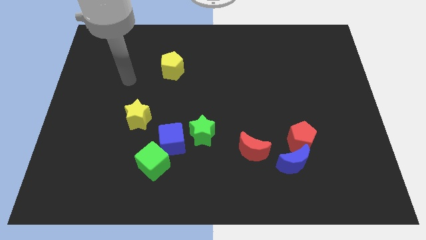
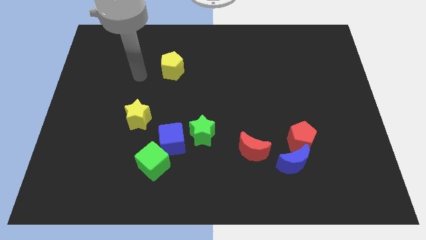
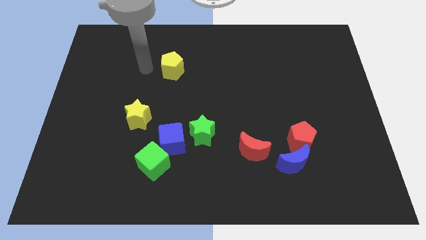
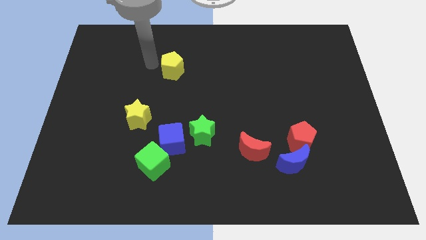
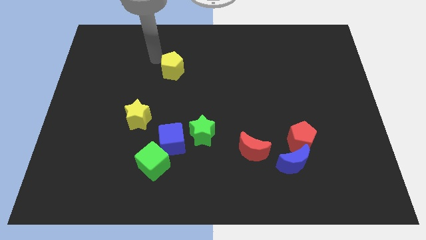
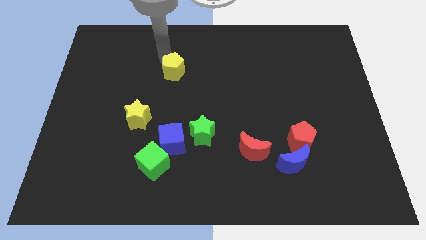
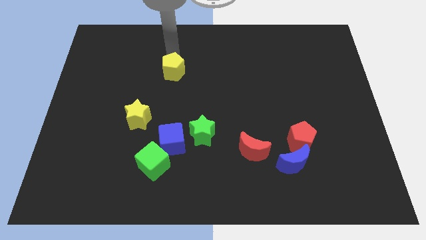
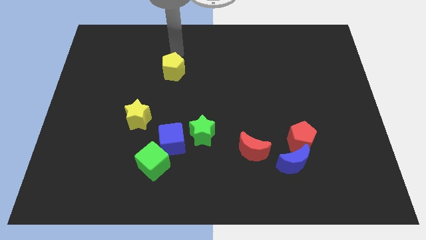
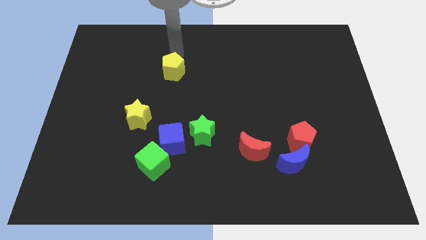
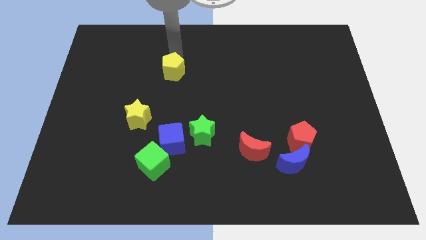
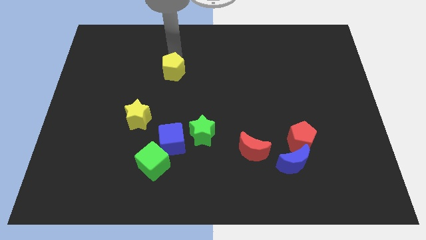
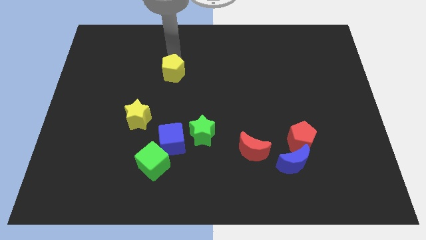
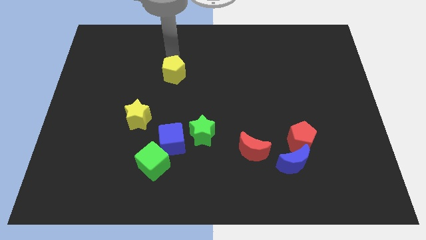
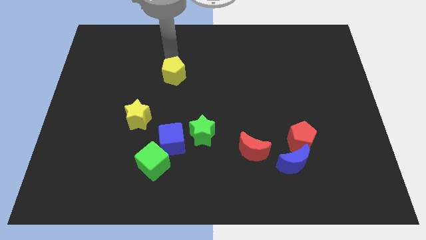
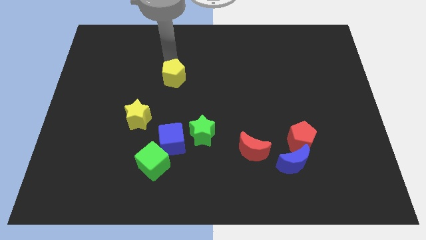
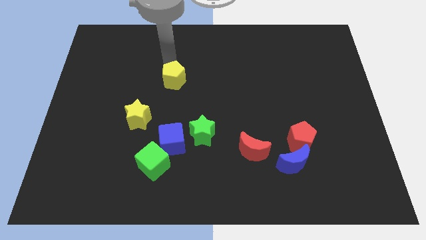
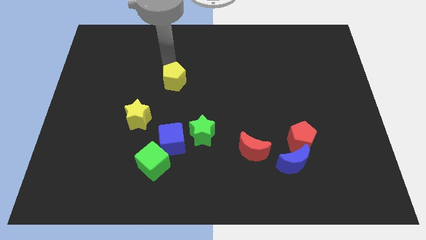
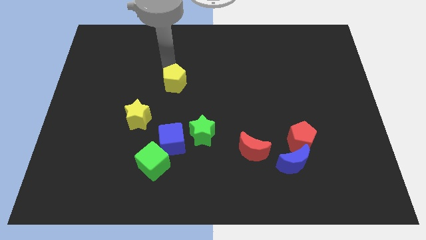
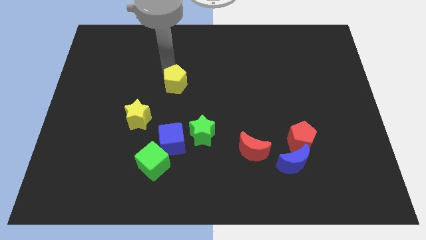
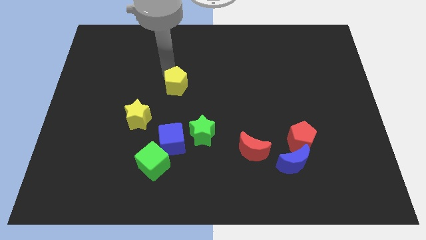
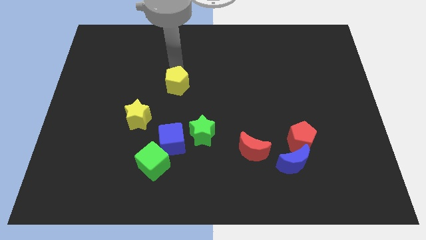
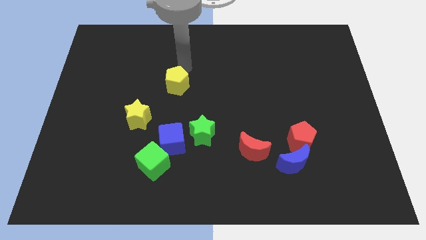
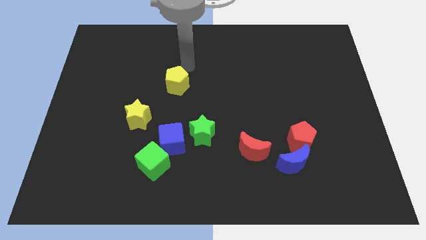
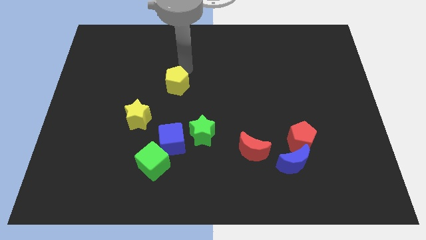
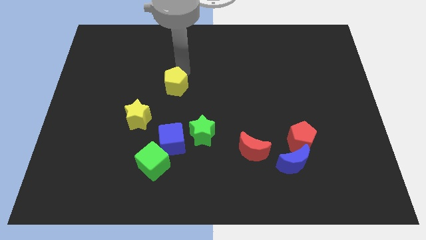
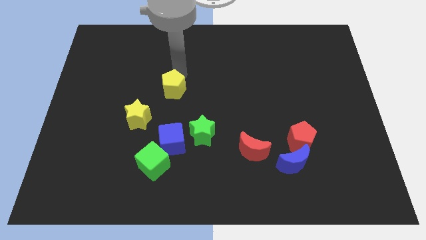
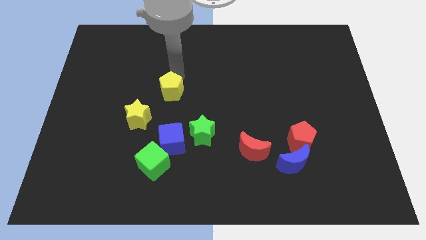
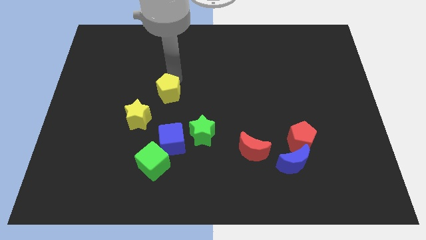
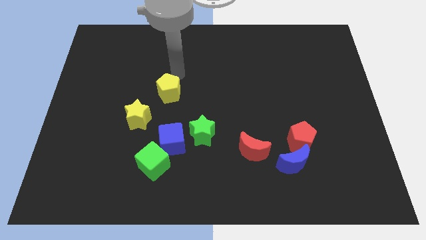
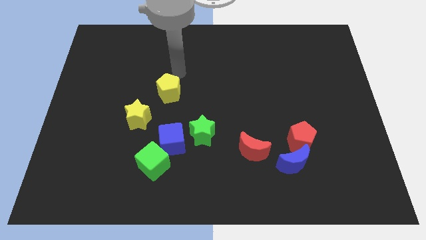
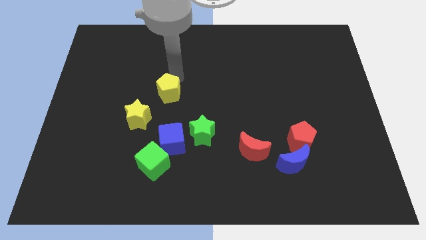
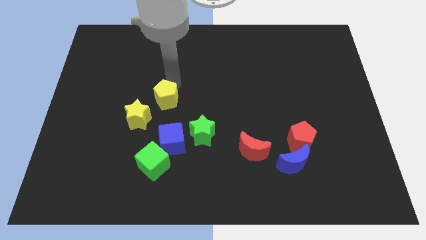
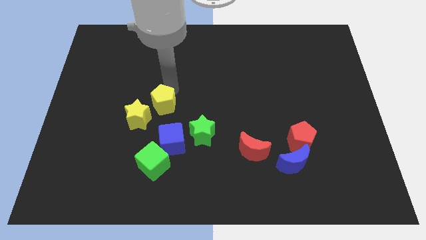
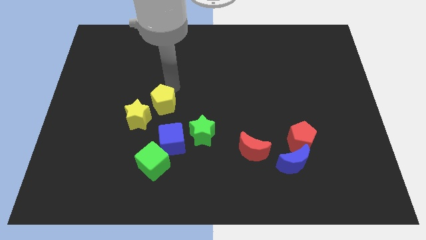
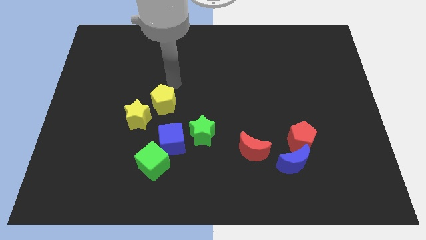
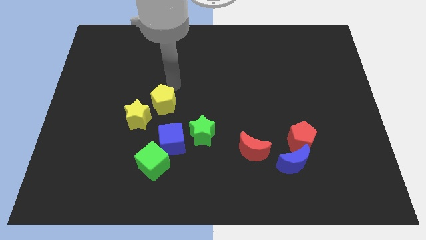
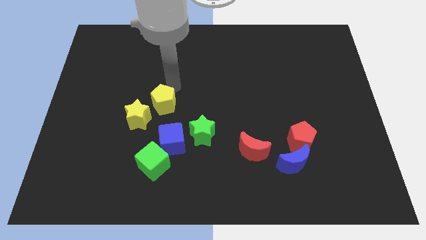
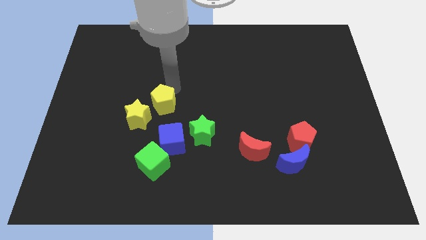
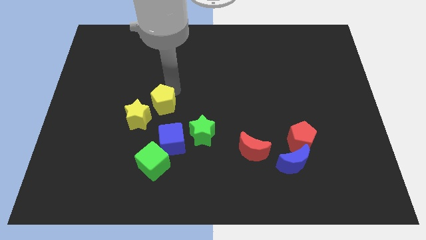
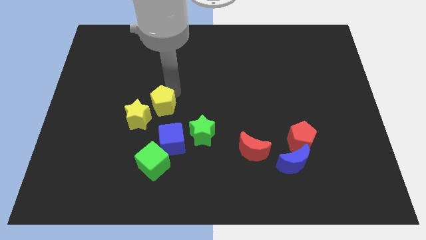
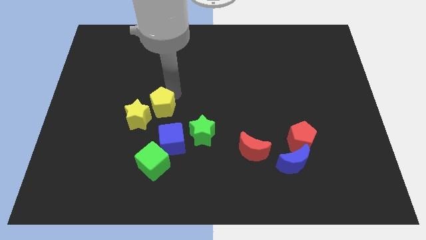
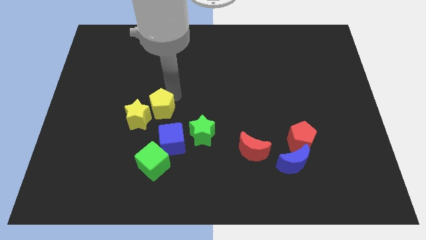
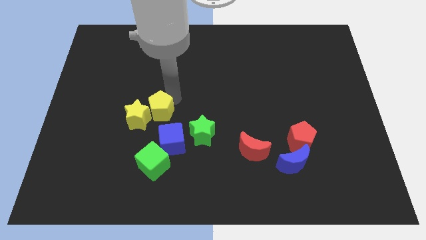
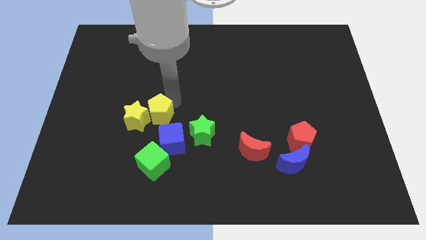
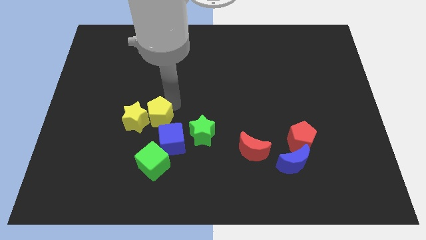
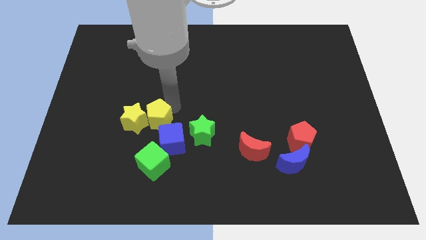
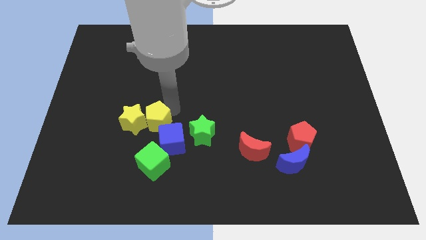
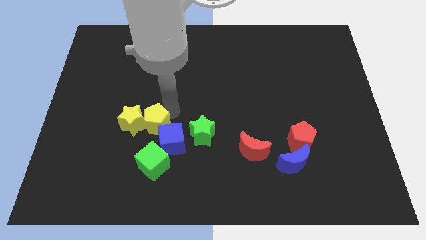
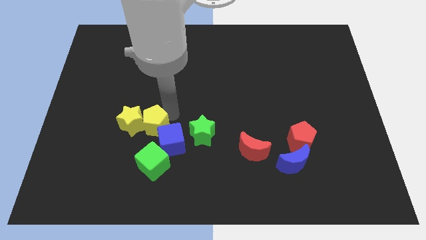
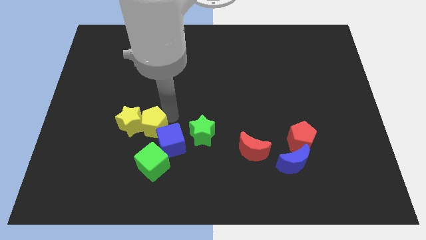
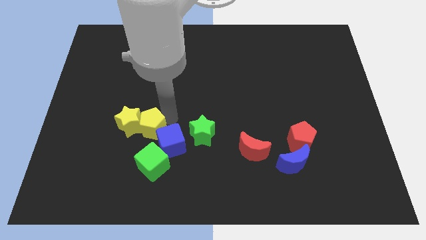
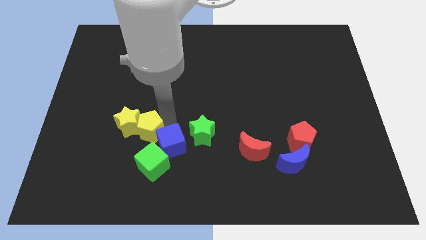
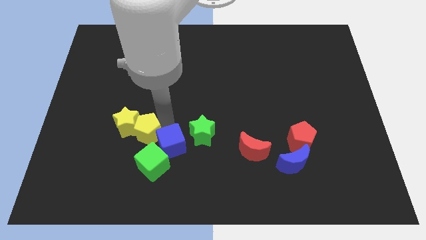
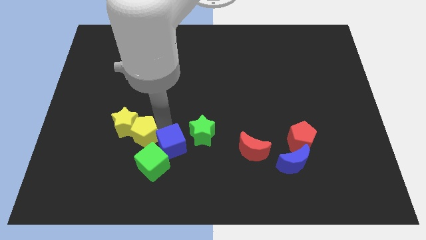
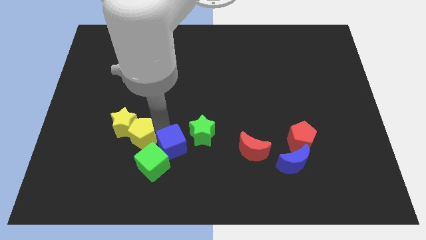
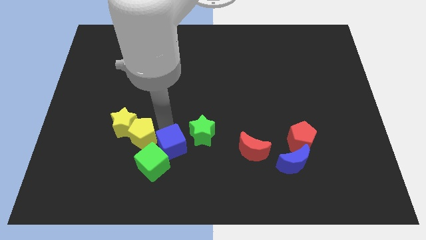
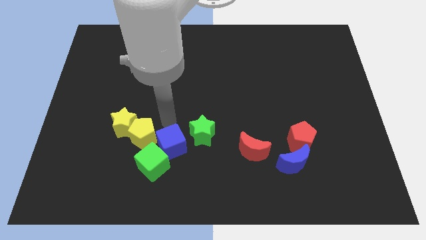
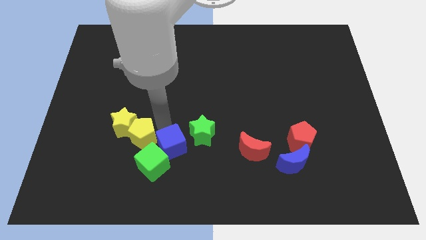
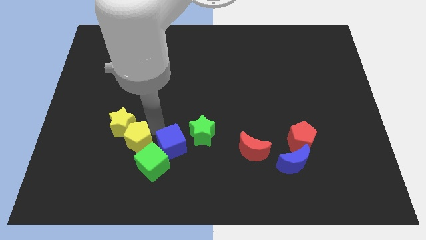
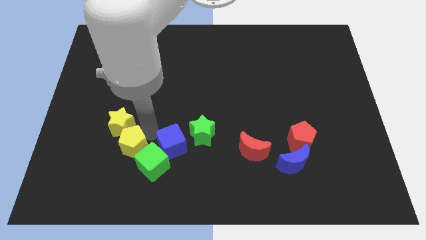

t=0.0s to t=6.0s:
push the yellow pentagon to the left of the green cube

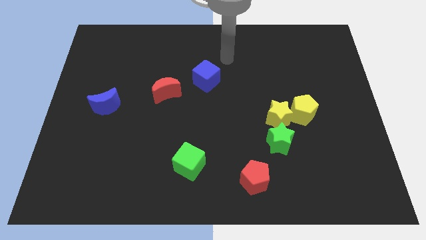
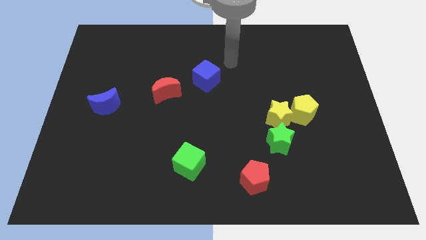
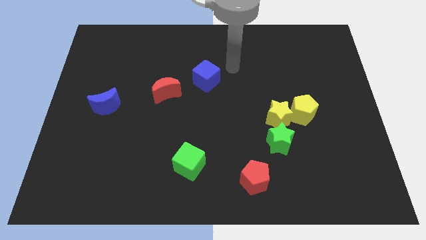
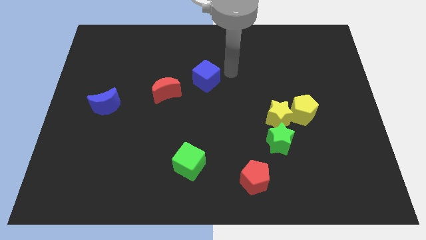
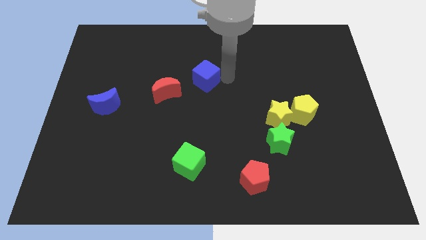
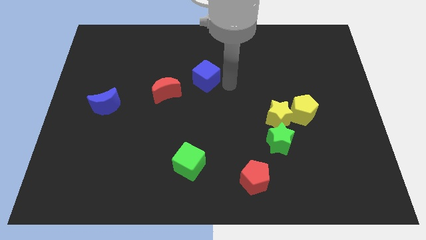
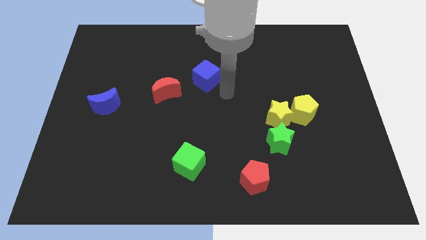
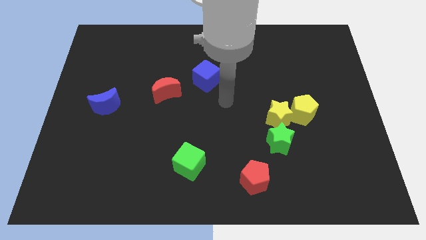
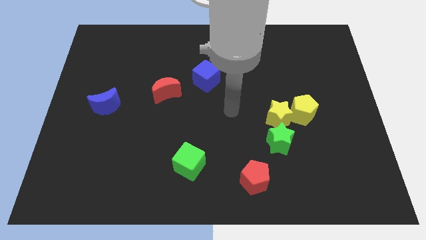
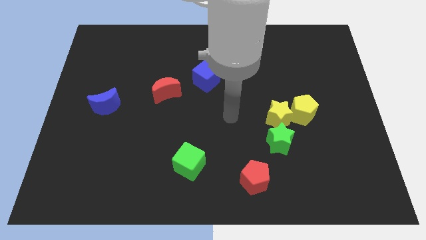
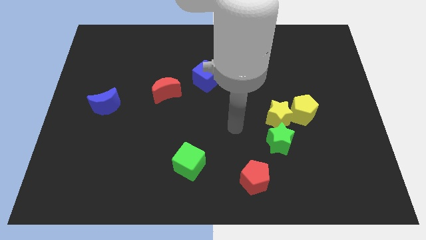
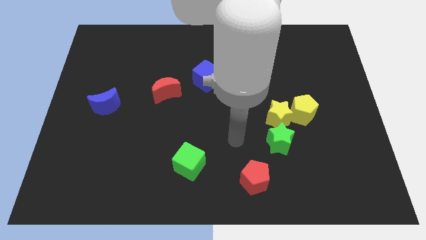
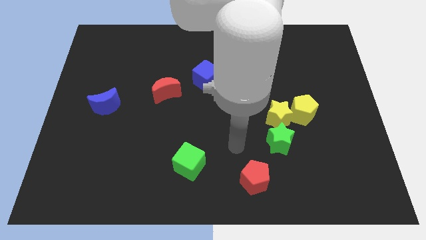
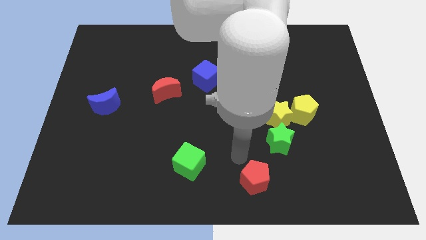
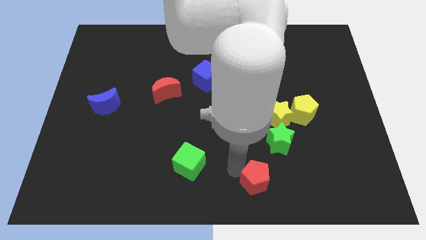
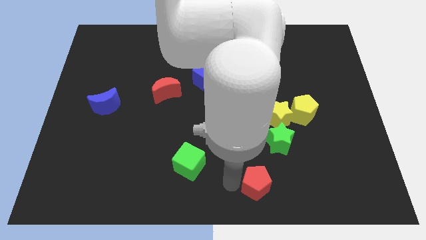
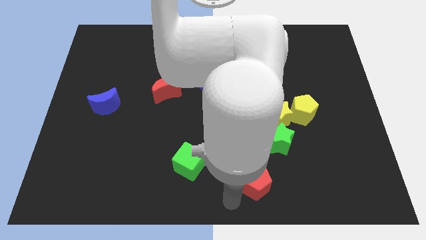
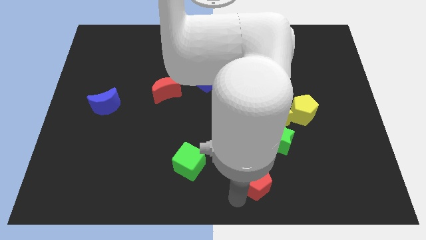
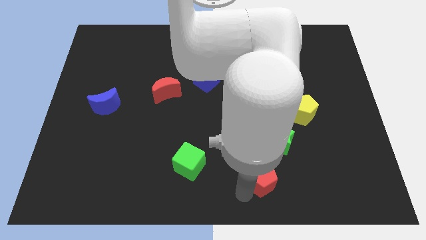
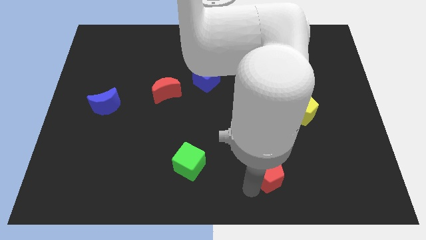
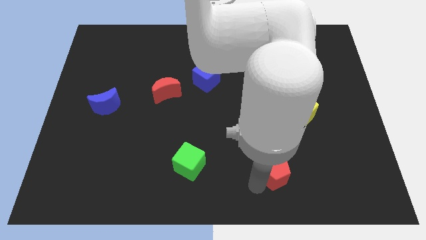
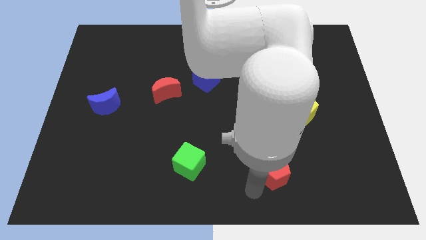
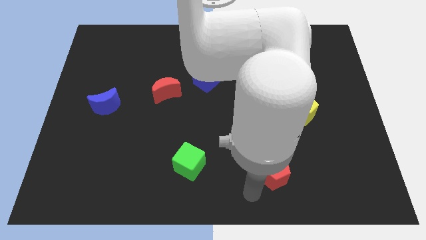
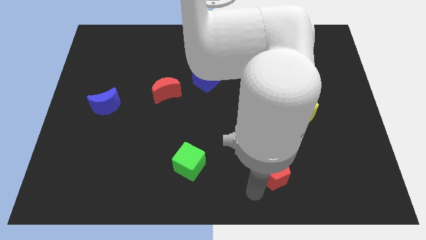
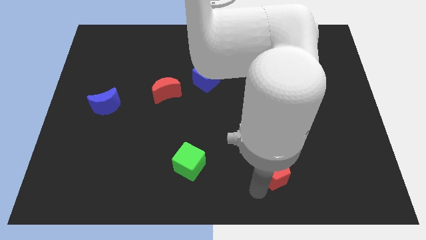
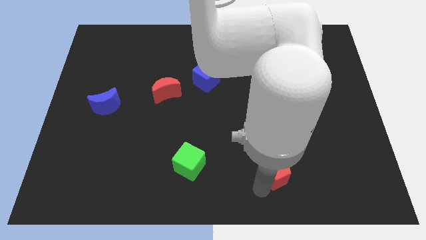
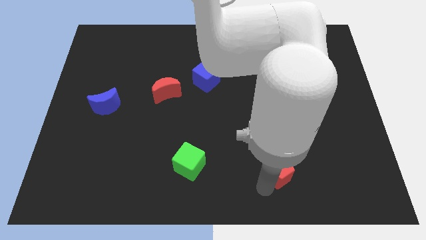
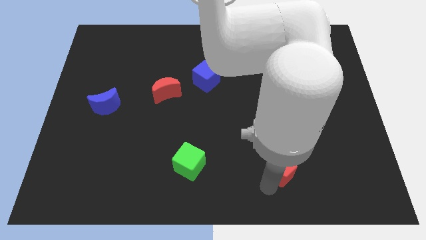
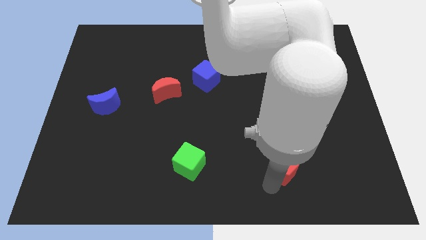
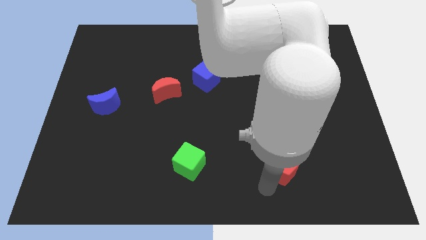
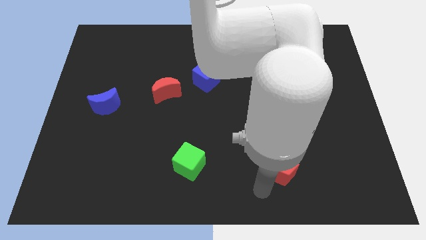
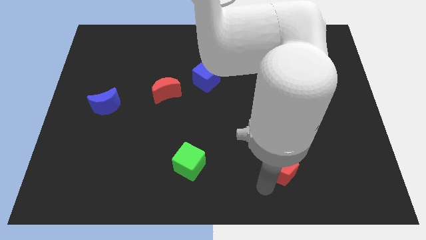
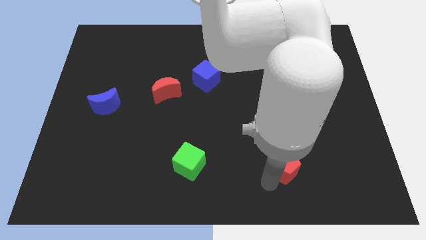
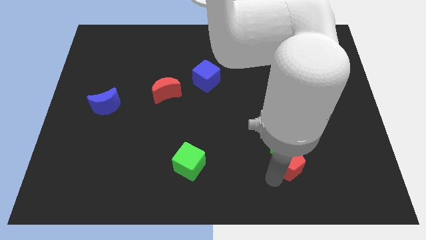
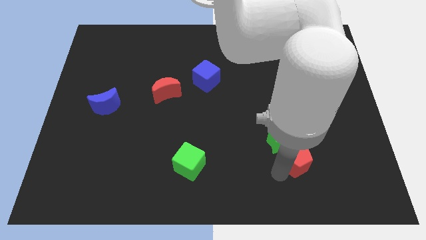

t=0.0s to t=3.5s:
put the red pentagon to the bottom of the yellow pentagon
